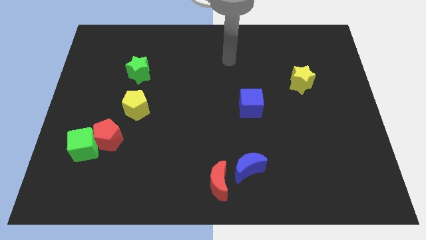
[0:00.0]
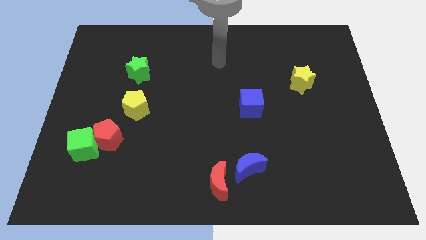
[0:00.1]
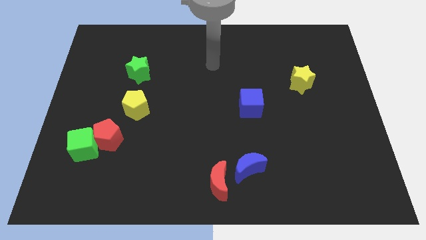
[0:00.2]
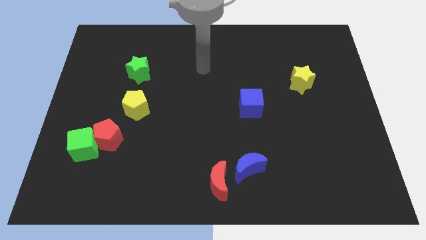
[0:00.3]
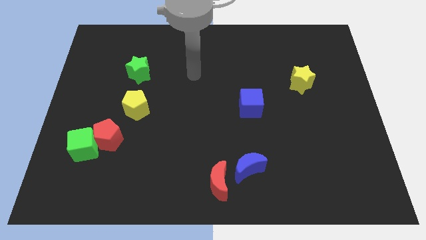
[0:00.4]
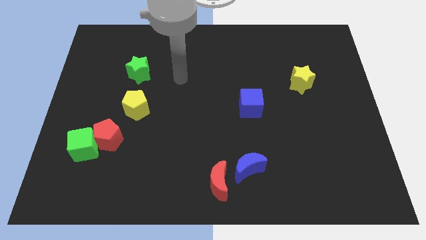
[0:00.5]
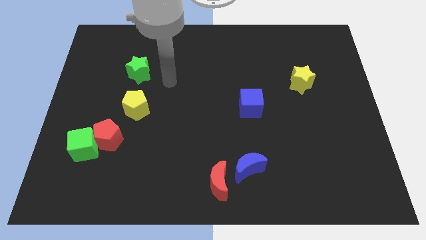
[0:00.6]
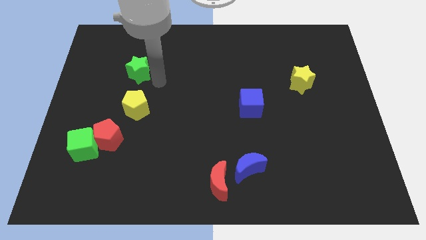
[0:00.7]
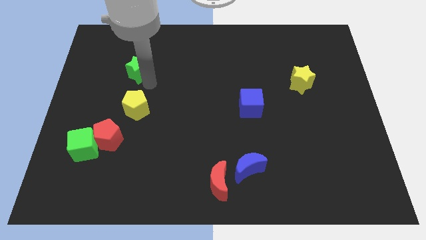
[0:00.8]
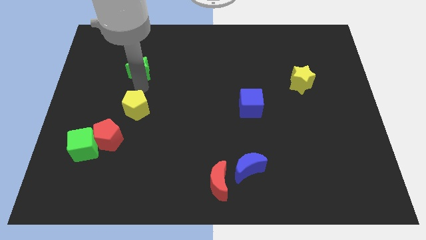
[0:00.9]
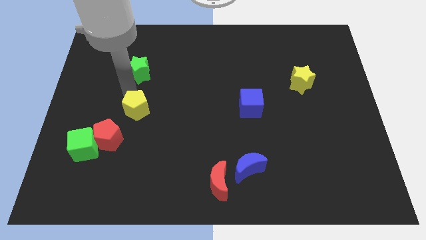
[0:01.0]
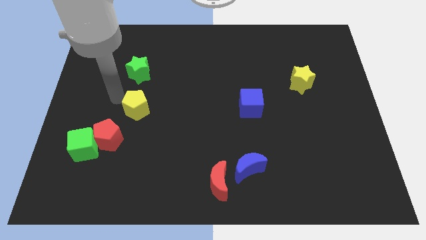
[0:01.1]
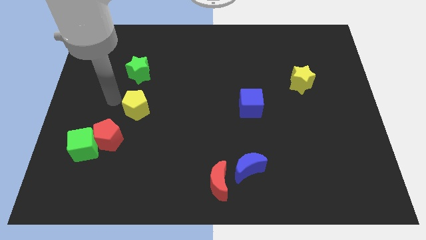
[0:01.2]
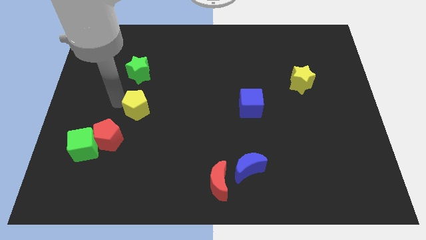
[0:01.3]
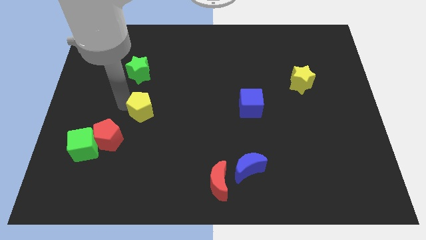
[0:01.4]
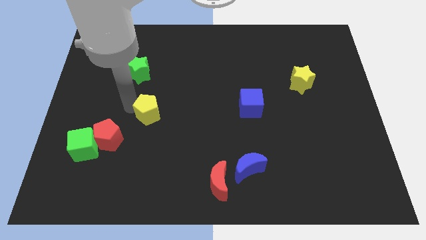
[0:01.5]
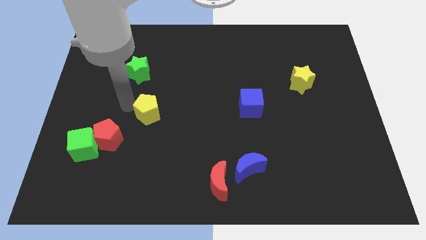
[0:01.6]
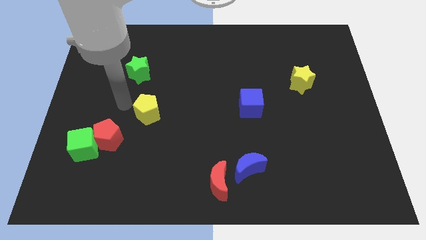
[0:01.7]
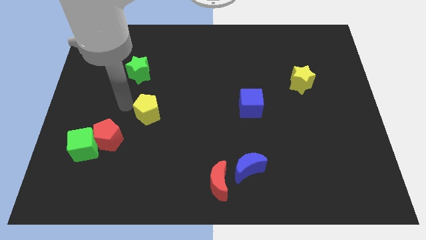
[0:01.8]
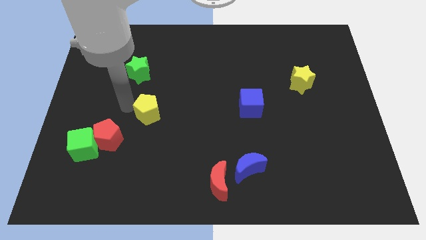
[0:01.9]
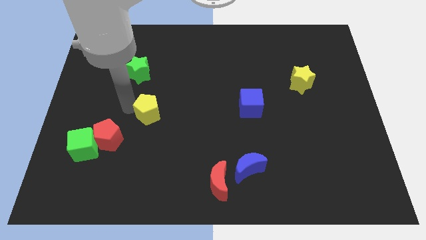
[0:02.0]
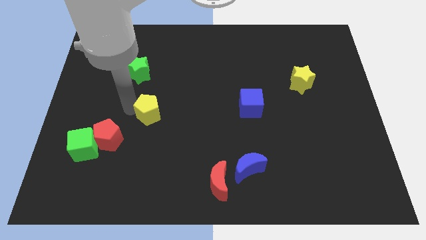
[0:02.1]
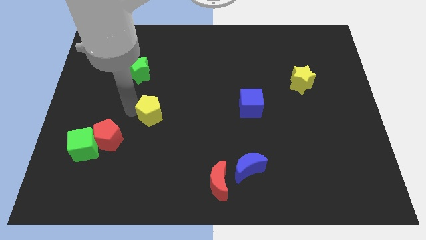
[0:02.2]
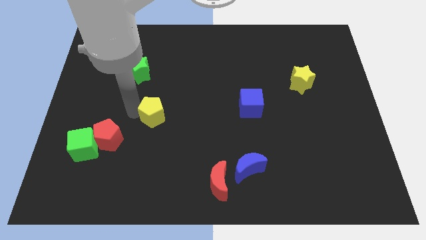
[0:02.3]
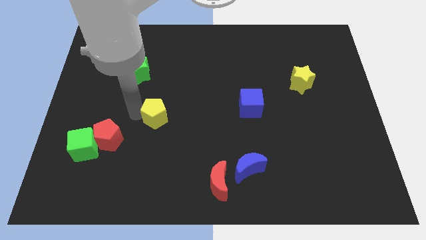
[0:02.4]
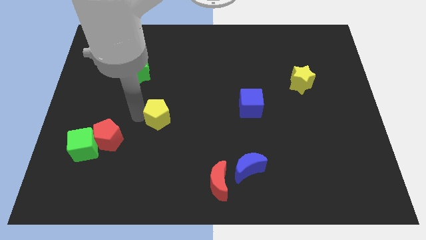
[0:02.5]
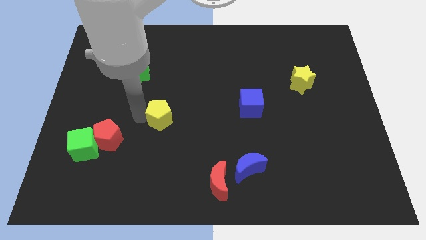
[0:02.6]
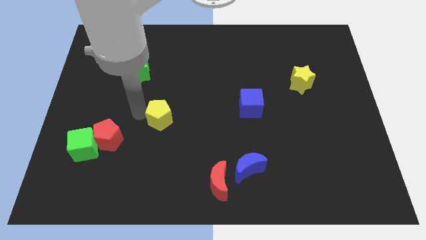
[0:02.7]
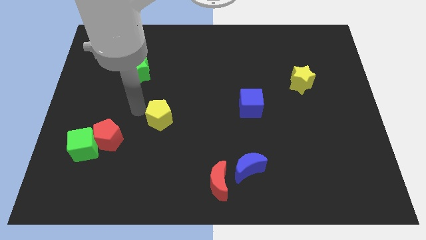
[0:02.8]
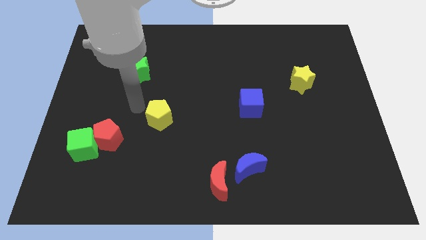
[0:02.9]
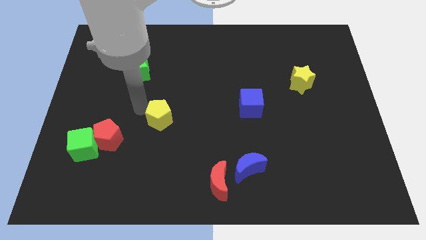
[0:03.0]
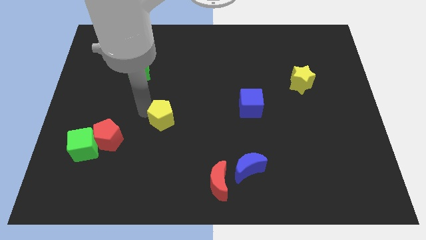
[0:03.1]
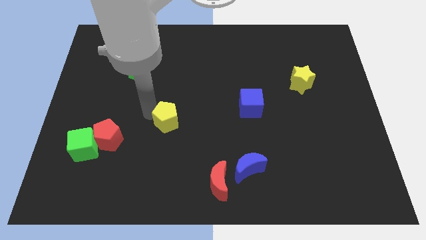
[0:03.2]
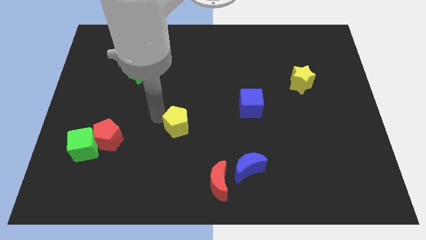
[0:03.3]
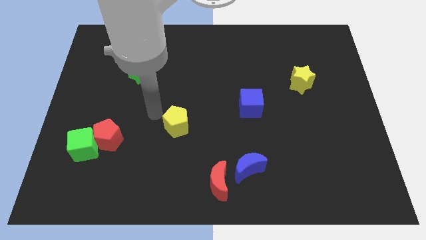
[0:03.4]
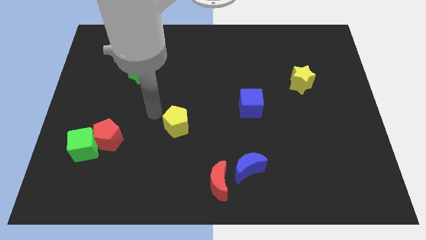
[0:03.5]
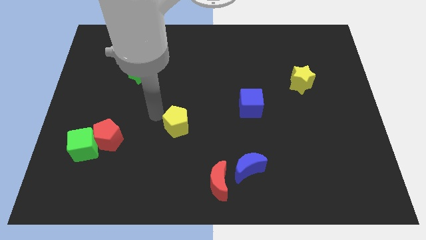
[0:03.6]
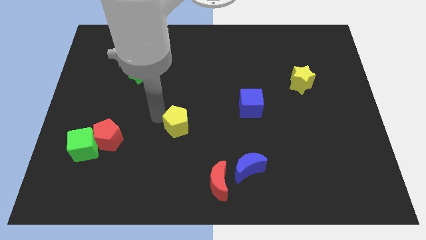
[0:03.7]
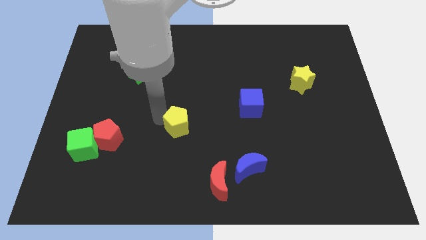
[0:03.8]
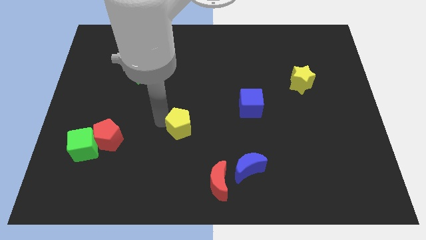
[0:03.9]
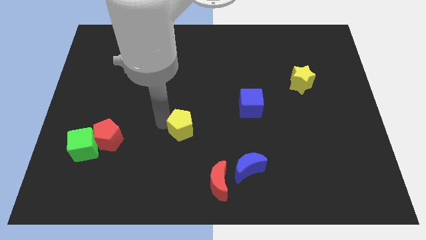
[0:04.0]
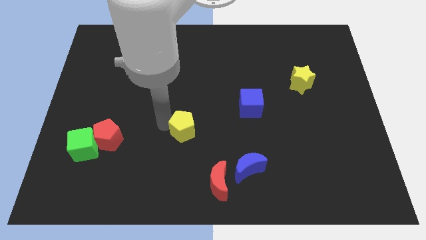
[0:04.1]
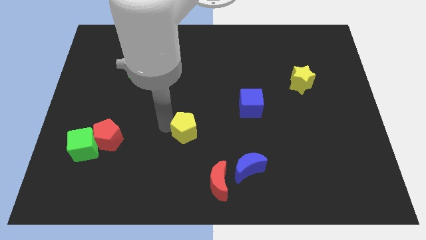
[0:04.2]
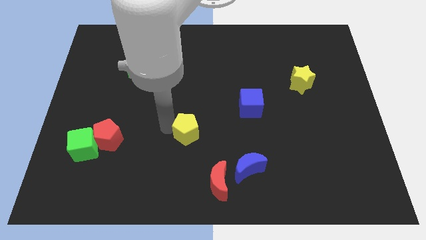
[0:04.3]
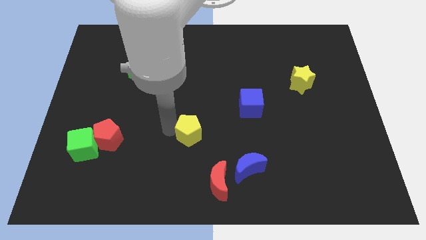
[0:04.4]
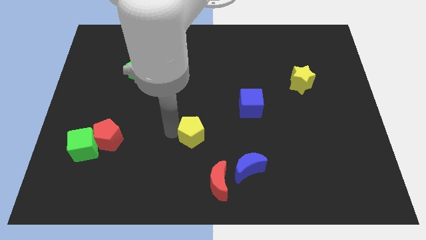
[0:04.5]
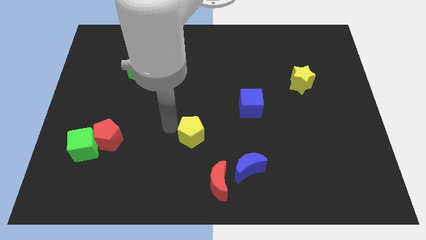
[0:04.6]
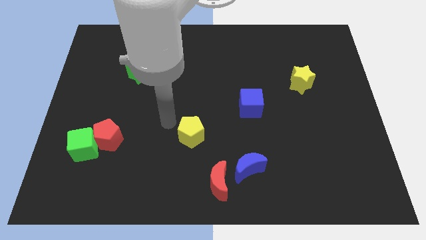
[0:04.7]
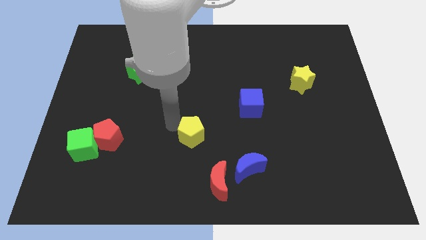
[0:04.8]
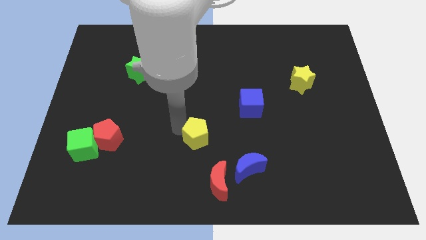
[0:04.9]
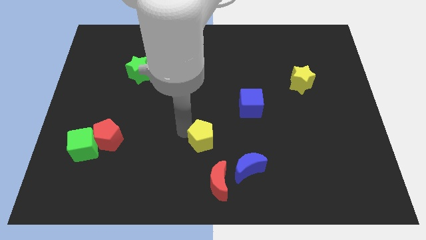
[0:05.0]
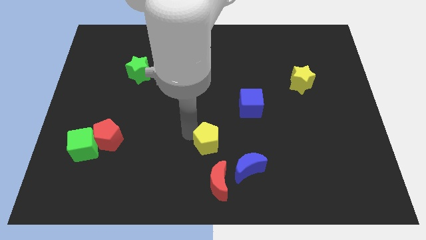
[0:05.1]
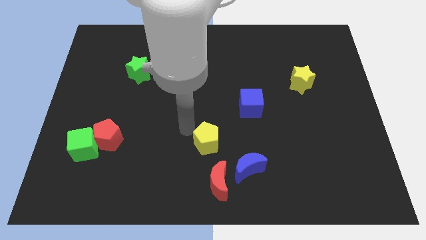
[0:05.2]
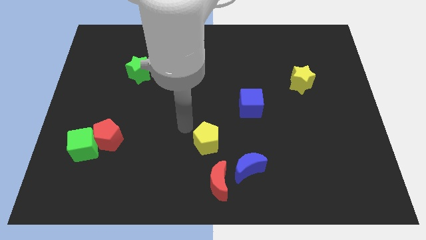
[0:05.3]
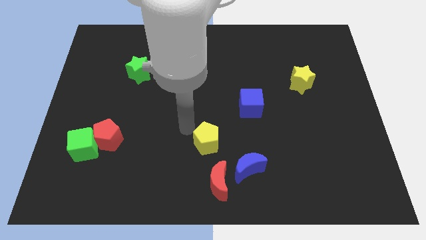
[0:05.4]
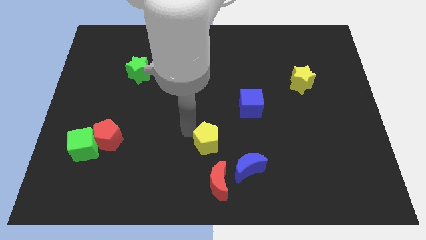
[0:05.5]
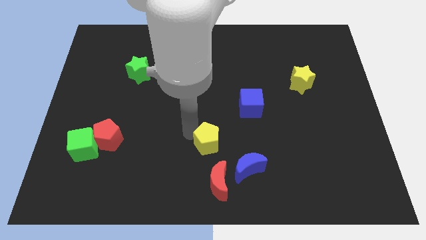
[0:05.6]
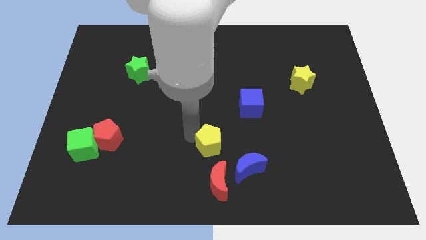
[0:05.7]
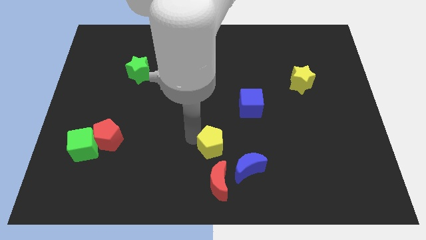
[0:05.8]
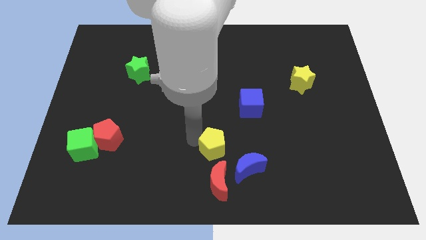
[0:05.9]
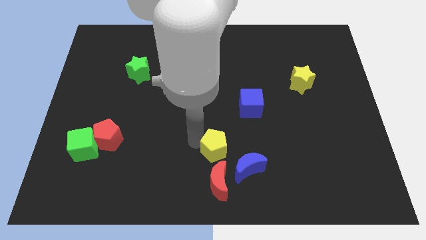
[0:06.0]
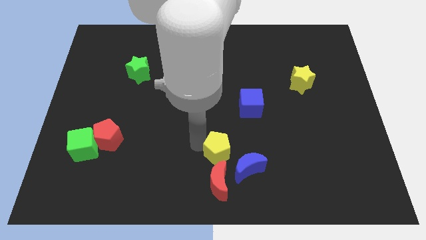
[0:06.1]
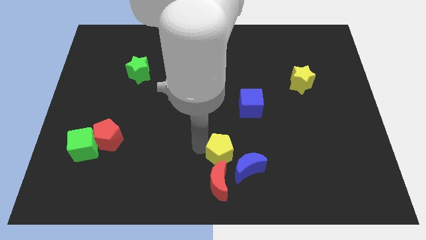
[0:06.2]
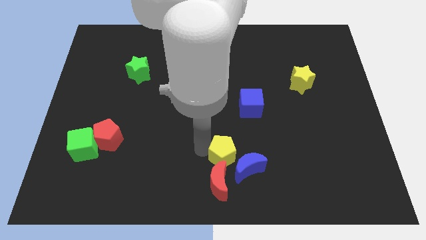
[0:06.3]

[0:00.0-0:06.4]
move the yellow pentagon towards the blue moon

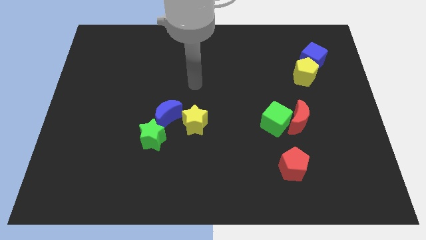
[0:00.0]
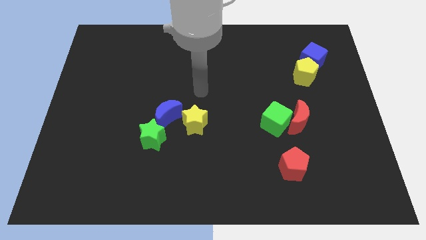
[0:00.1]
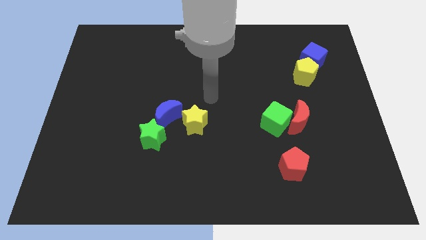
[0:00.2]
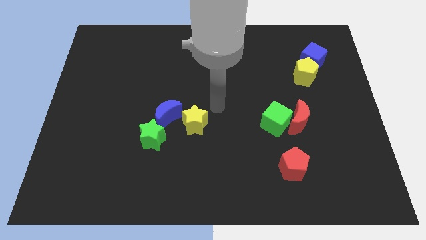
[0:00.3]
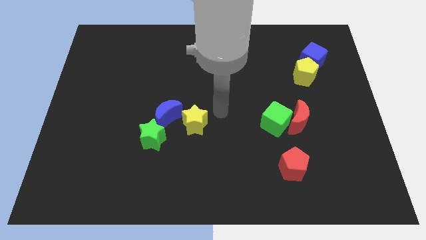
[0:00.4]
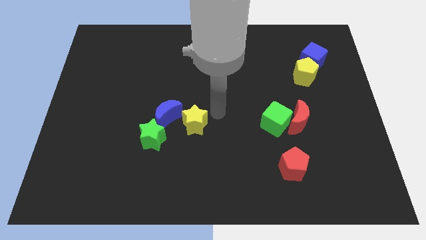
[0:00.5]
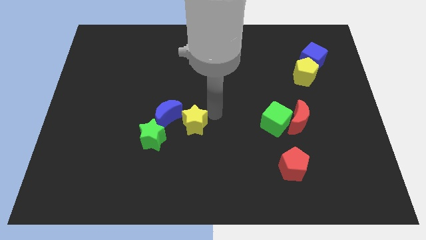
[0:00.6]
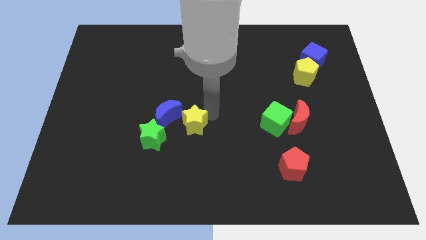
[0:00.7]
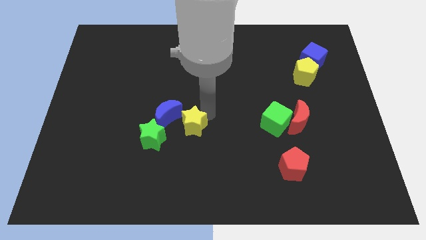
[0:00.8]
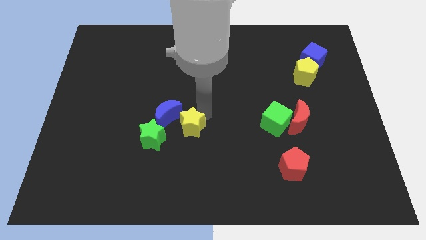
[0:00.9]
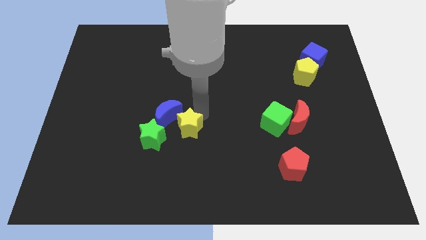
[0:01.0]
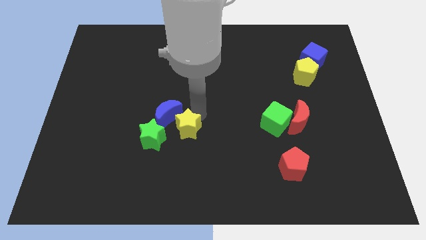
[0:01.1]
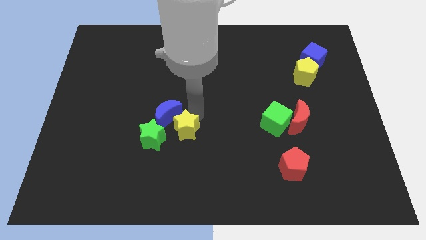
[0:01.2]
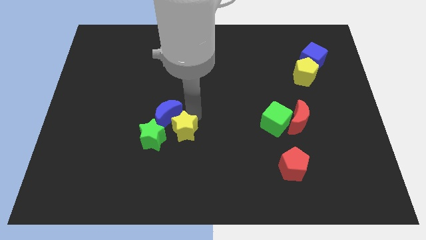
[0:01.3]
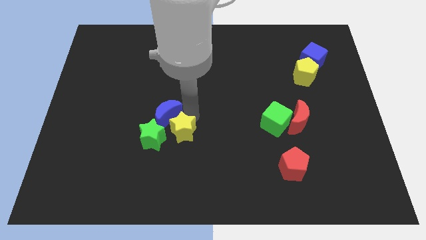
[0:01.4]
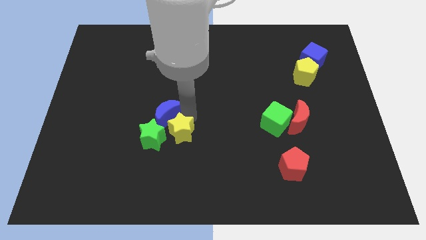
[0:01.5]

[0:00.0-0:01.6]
slide the yellow star close to the green star

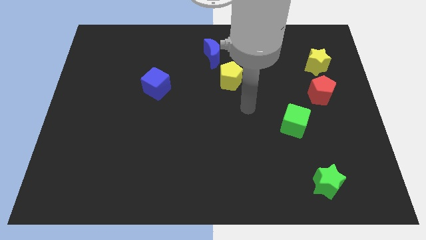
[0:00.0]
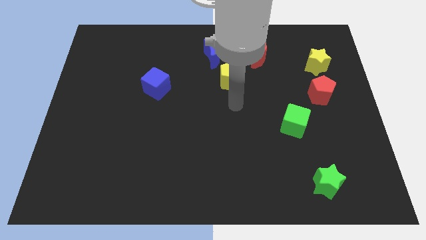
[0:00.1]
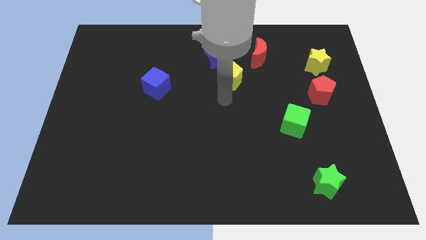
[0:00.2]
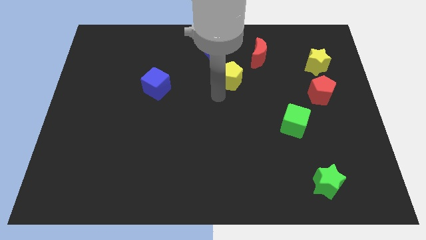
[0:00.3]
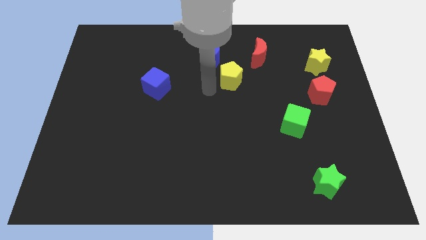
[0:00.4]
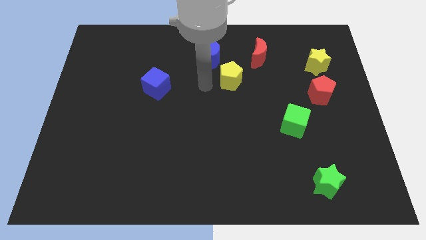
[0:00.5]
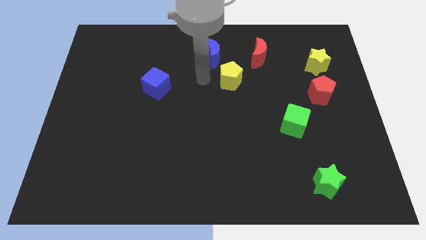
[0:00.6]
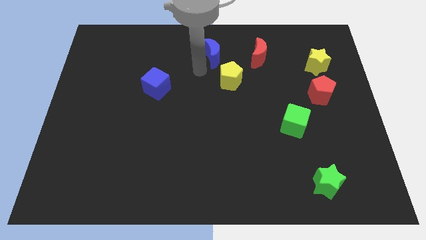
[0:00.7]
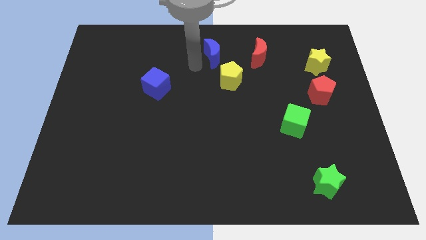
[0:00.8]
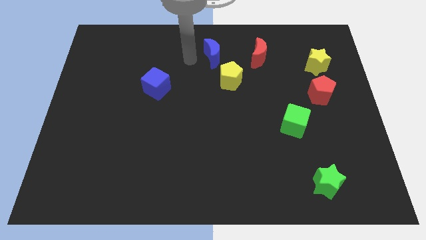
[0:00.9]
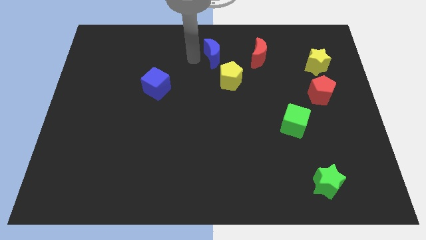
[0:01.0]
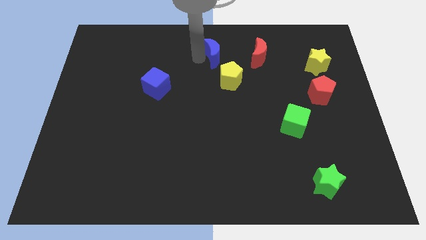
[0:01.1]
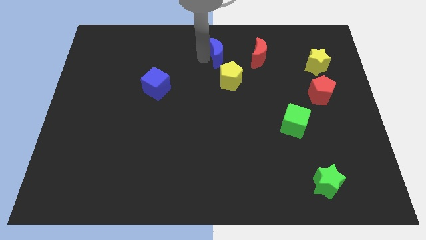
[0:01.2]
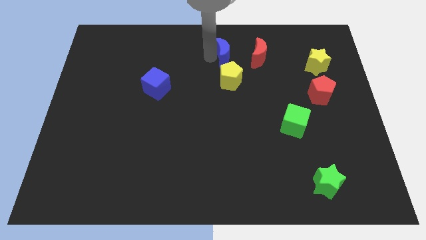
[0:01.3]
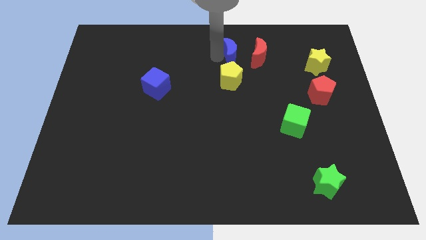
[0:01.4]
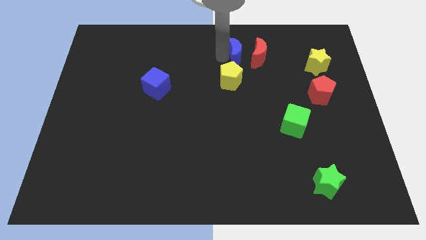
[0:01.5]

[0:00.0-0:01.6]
push the blue moon to the red moon
